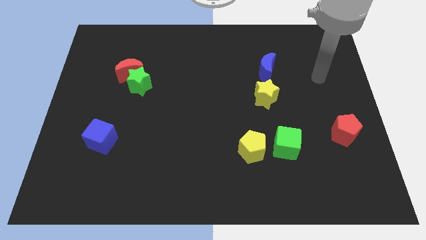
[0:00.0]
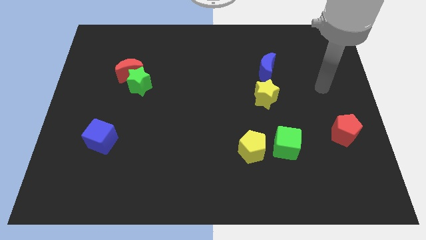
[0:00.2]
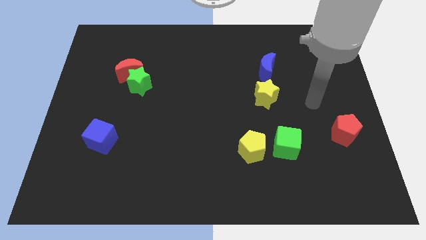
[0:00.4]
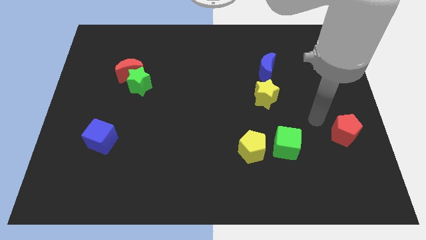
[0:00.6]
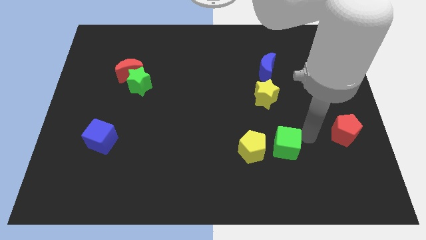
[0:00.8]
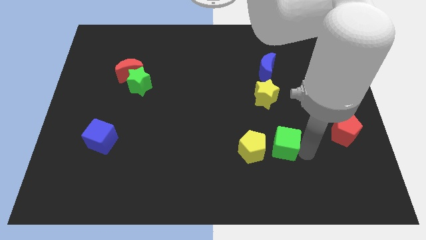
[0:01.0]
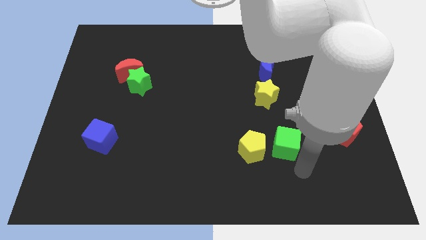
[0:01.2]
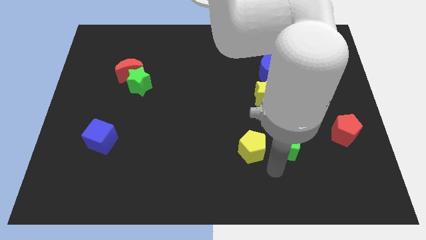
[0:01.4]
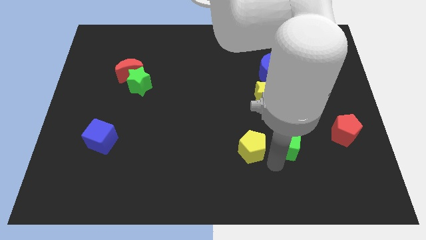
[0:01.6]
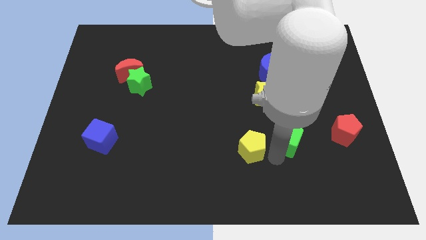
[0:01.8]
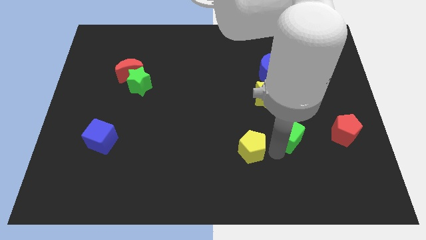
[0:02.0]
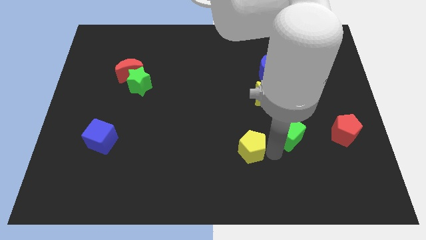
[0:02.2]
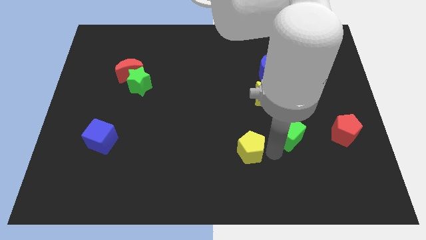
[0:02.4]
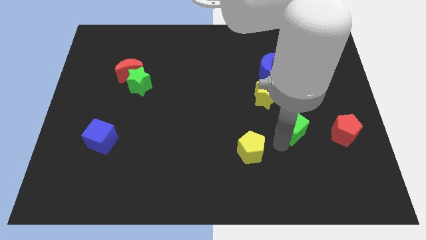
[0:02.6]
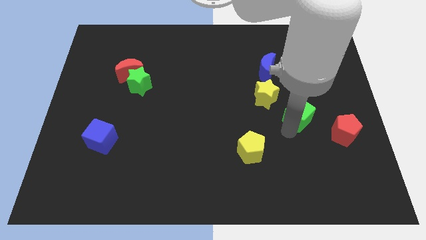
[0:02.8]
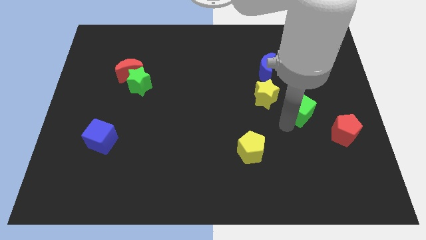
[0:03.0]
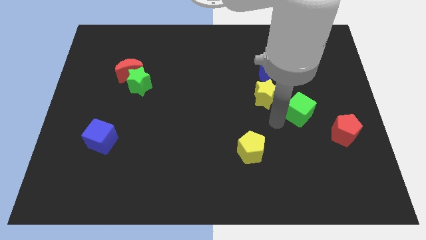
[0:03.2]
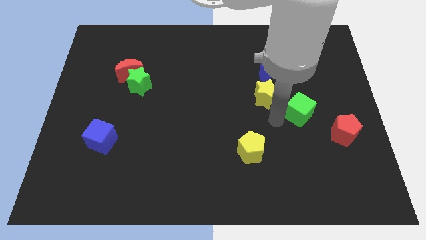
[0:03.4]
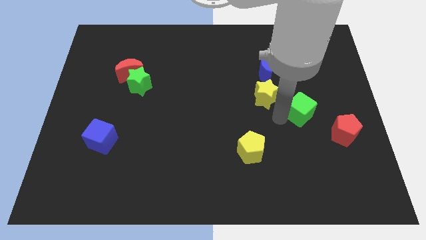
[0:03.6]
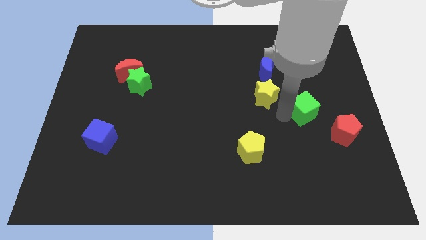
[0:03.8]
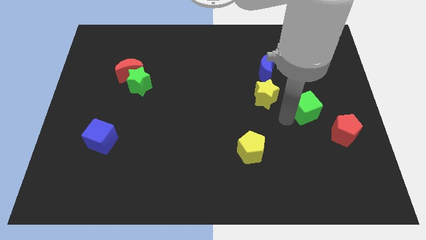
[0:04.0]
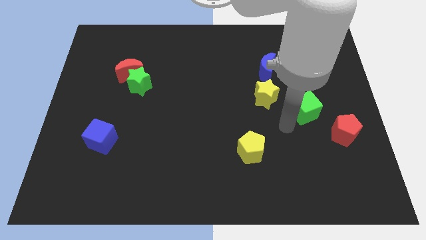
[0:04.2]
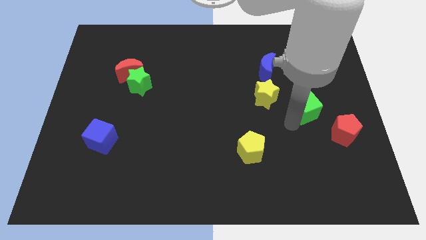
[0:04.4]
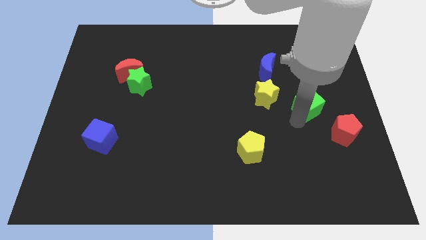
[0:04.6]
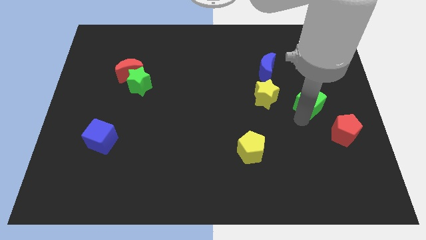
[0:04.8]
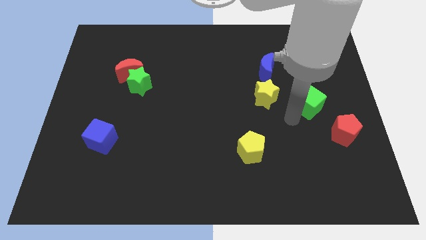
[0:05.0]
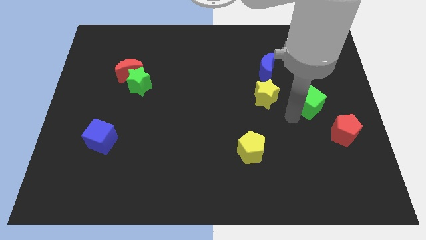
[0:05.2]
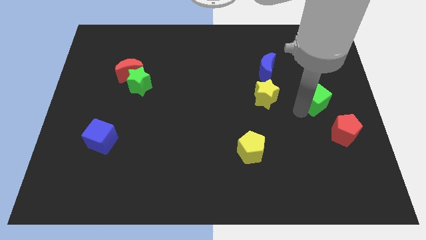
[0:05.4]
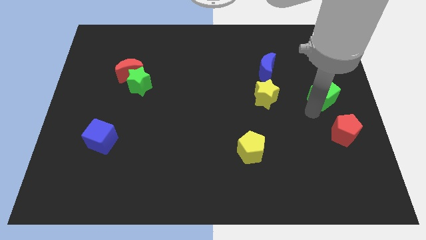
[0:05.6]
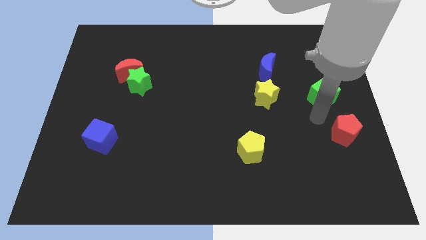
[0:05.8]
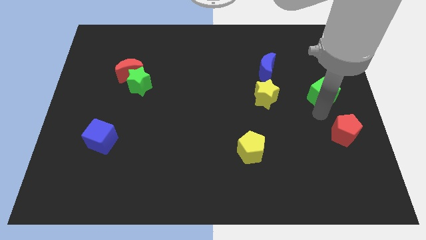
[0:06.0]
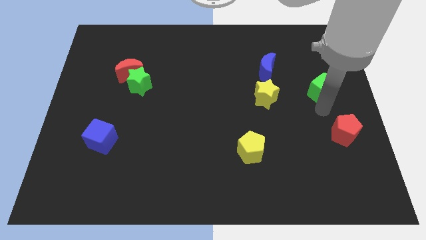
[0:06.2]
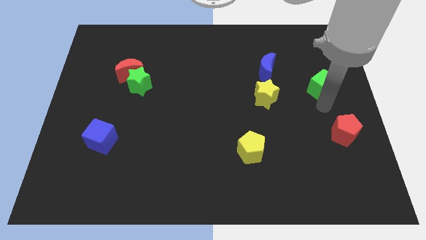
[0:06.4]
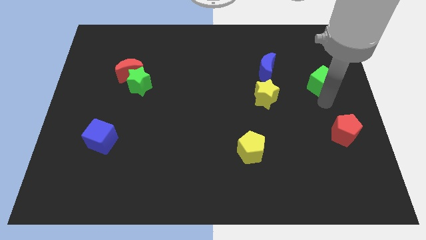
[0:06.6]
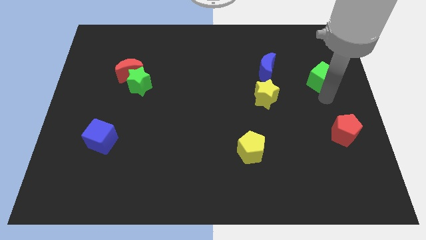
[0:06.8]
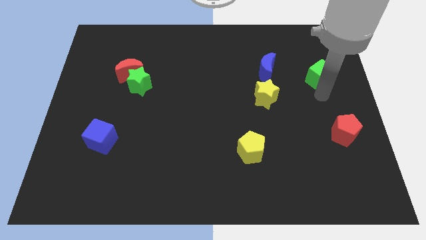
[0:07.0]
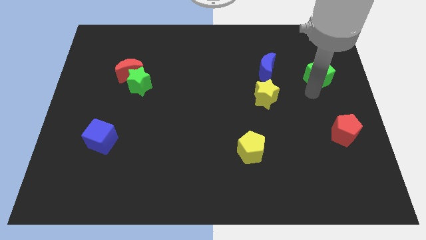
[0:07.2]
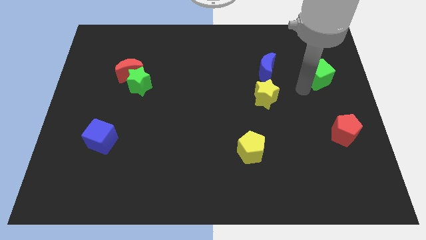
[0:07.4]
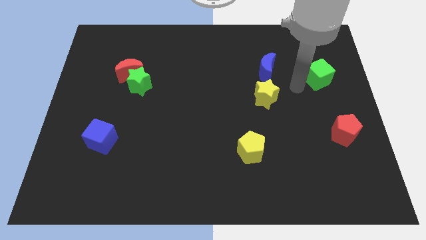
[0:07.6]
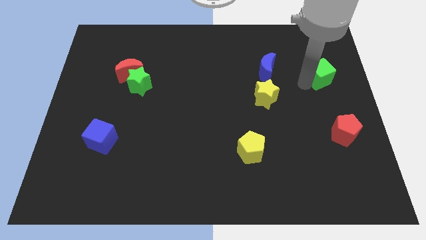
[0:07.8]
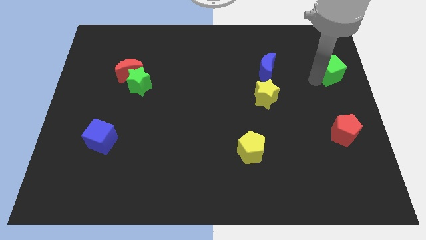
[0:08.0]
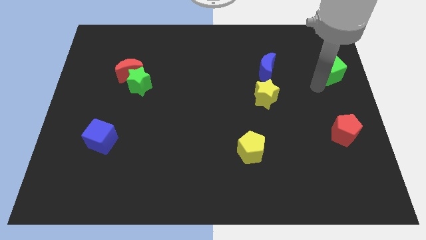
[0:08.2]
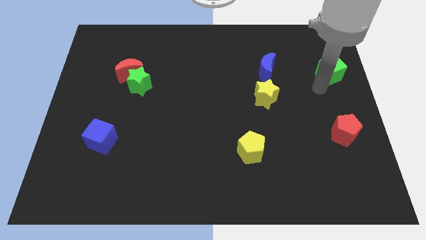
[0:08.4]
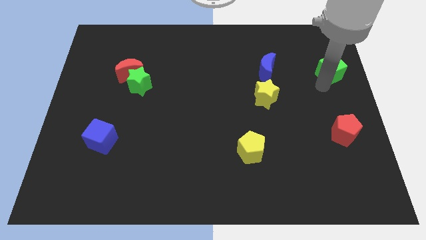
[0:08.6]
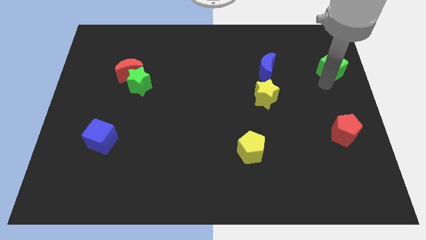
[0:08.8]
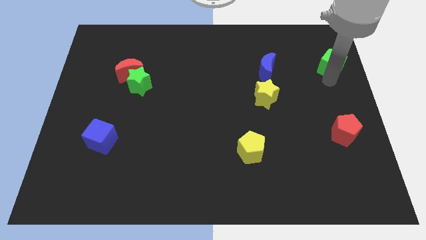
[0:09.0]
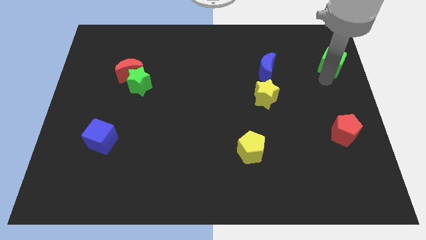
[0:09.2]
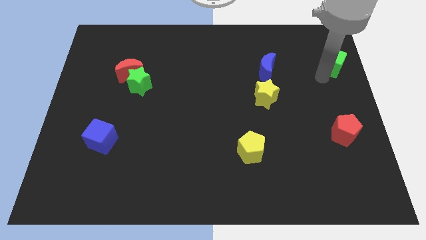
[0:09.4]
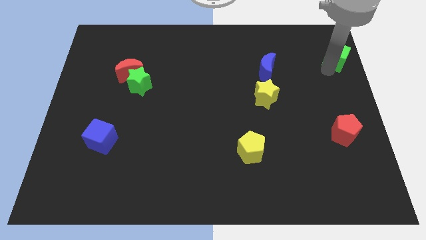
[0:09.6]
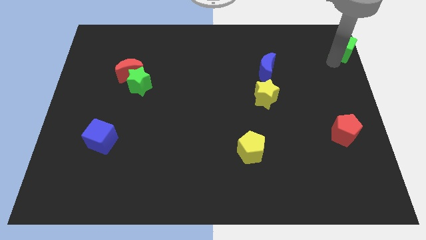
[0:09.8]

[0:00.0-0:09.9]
put the green cube to the top right

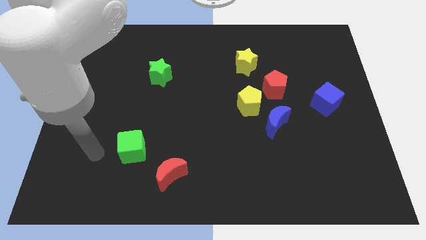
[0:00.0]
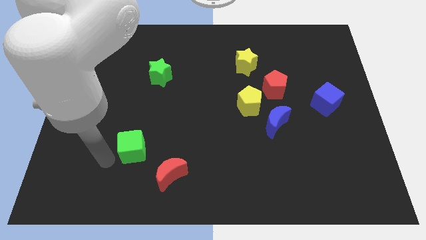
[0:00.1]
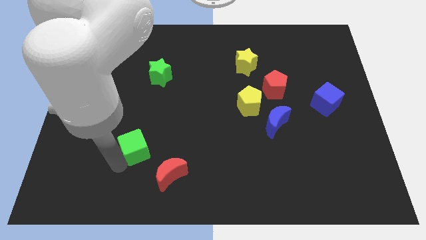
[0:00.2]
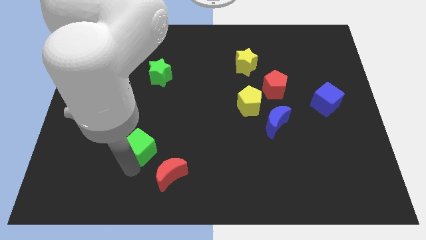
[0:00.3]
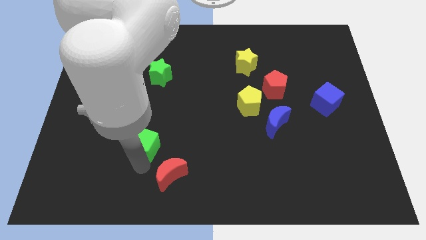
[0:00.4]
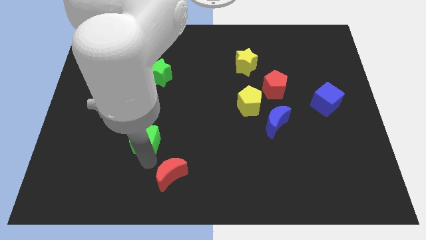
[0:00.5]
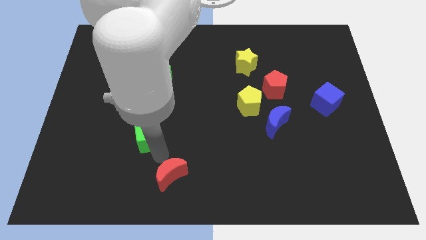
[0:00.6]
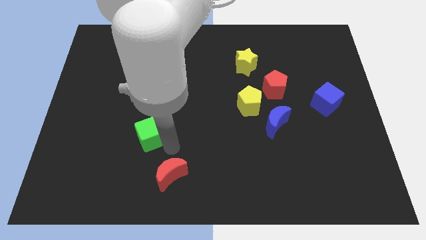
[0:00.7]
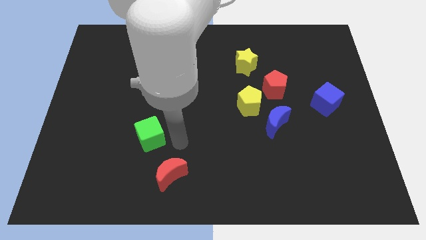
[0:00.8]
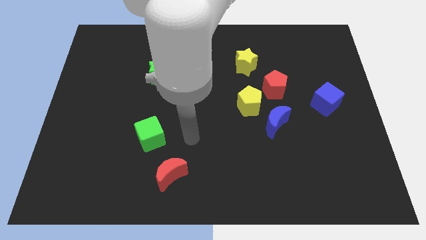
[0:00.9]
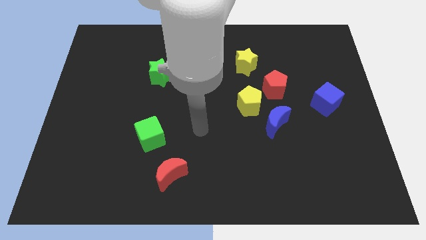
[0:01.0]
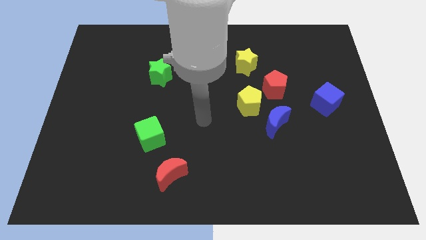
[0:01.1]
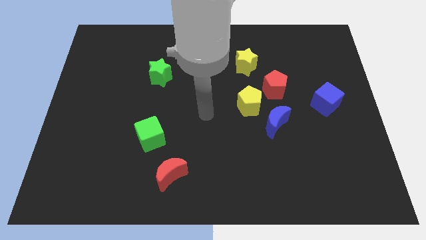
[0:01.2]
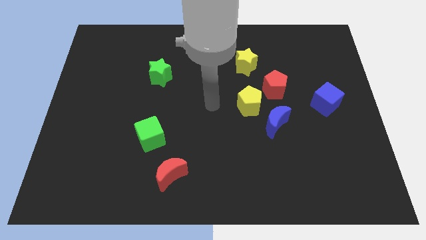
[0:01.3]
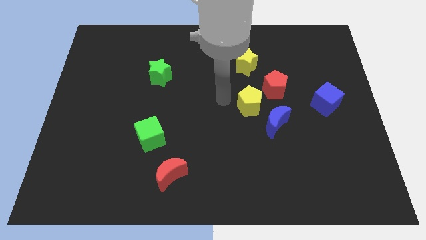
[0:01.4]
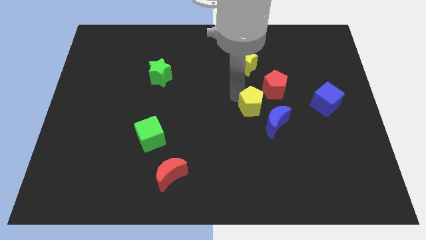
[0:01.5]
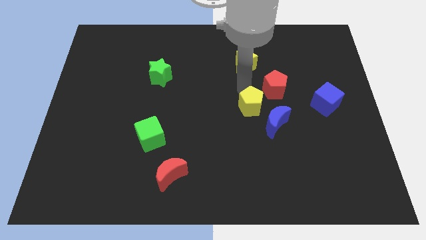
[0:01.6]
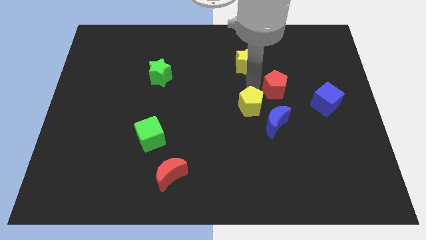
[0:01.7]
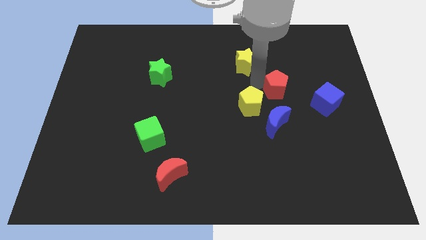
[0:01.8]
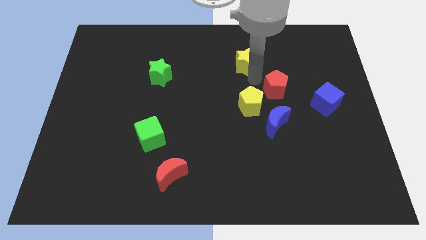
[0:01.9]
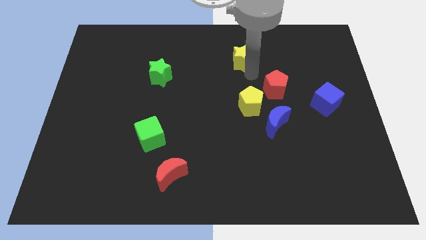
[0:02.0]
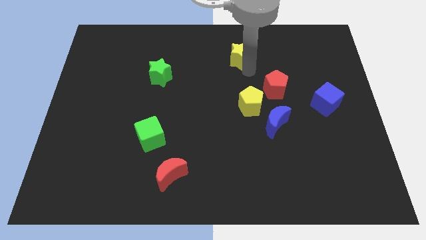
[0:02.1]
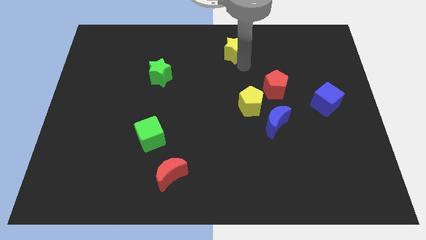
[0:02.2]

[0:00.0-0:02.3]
push the yellow star to the top side

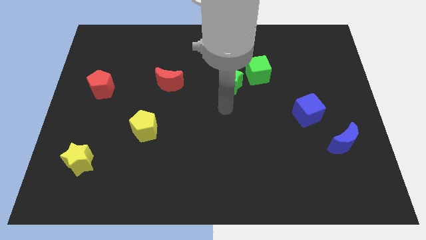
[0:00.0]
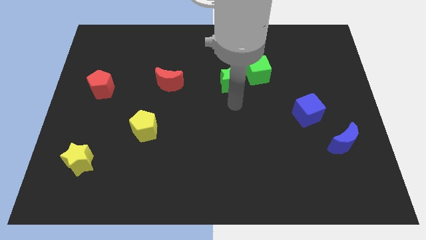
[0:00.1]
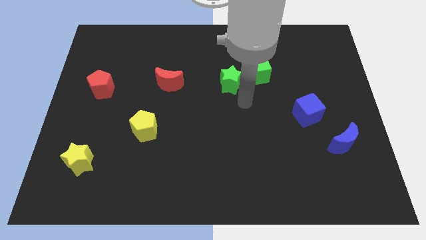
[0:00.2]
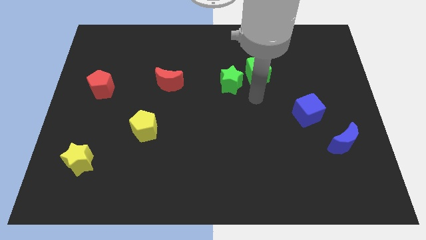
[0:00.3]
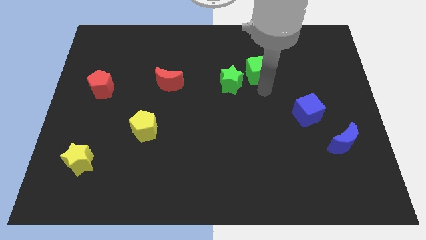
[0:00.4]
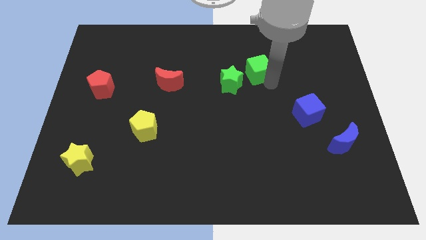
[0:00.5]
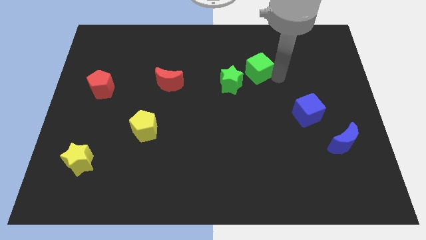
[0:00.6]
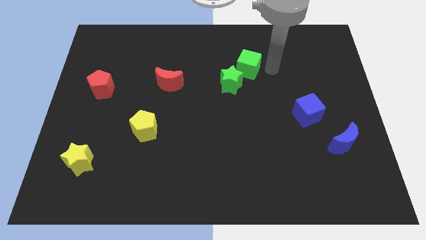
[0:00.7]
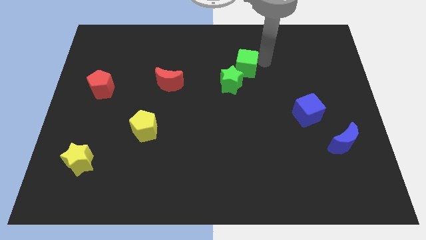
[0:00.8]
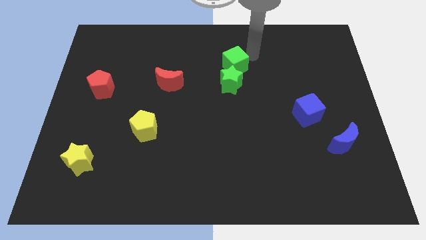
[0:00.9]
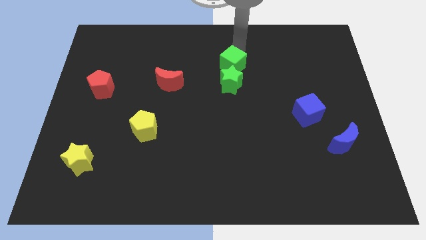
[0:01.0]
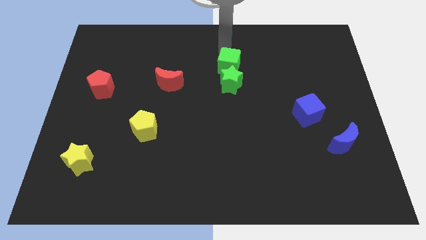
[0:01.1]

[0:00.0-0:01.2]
put the green cube to the middle
